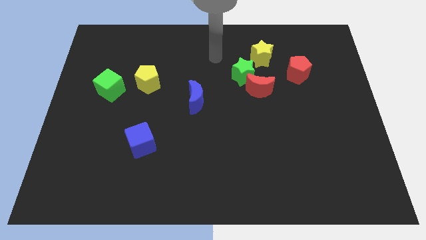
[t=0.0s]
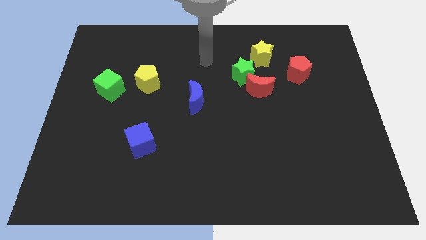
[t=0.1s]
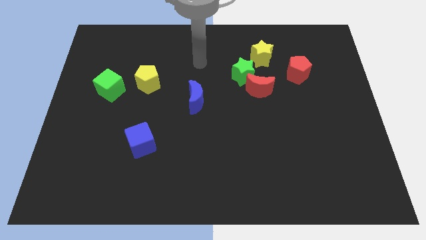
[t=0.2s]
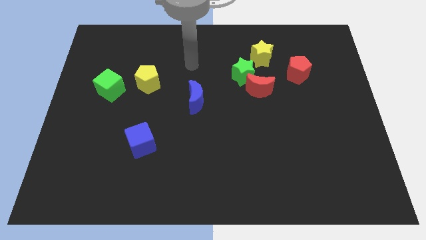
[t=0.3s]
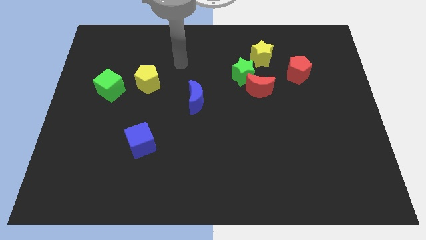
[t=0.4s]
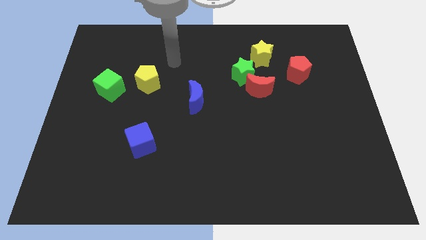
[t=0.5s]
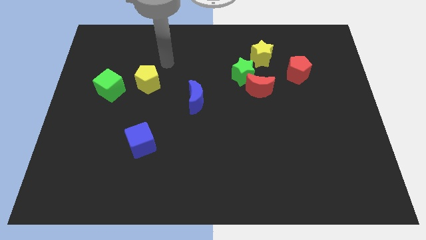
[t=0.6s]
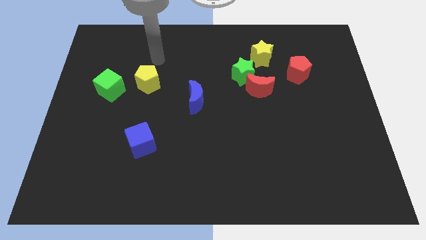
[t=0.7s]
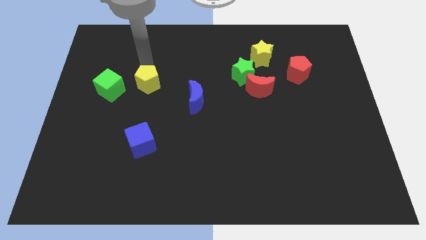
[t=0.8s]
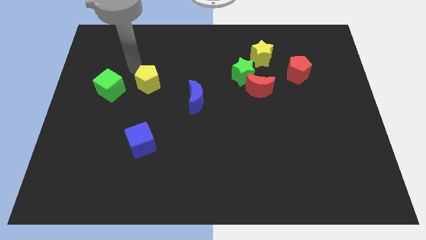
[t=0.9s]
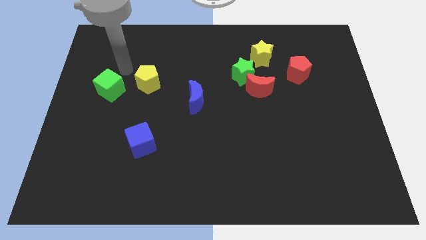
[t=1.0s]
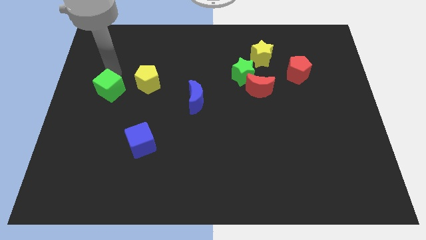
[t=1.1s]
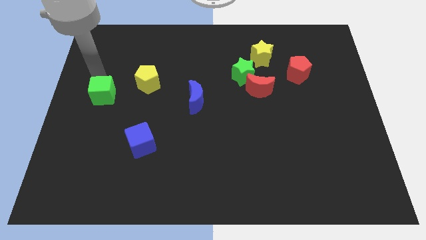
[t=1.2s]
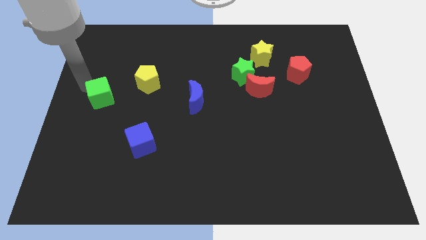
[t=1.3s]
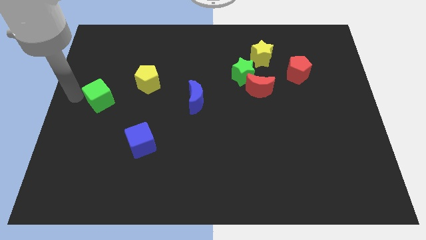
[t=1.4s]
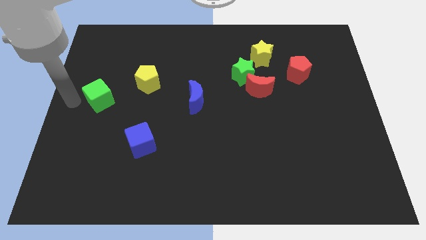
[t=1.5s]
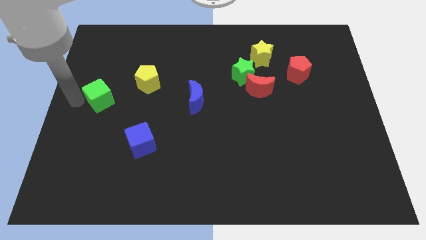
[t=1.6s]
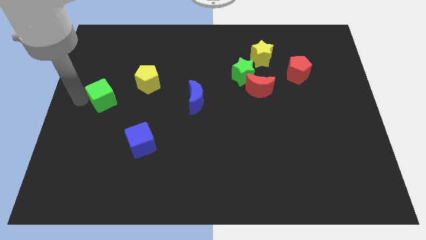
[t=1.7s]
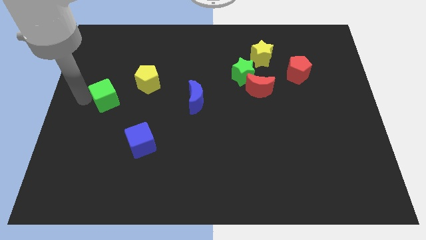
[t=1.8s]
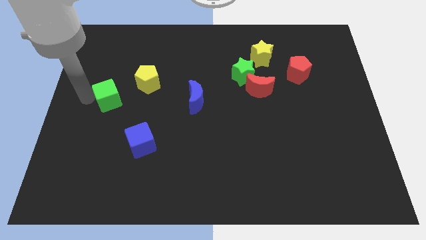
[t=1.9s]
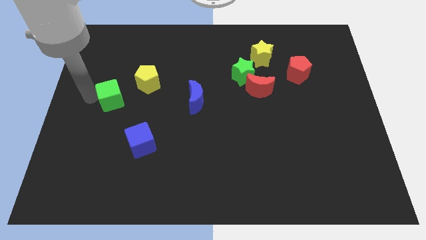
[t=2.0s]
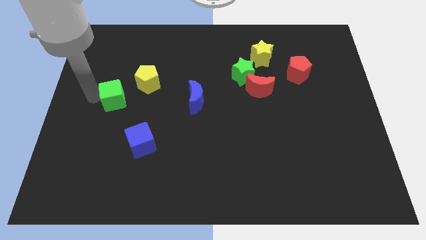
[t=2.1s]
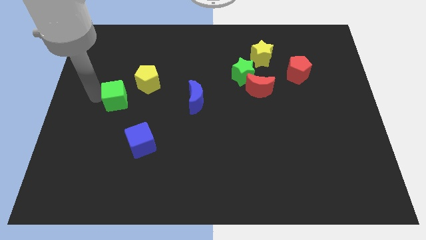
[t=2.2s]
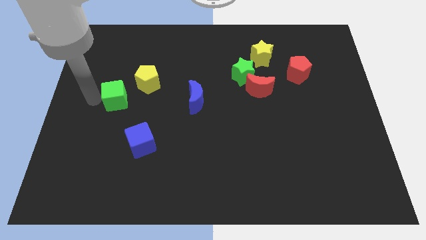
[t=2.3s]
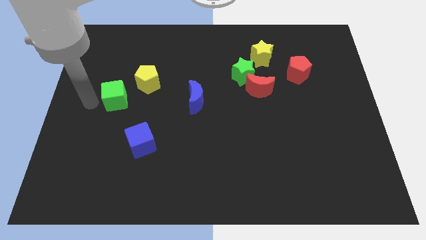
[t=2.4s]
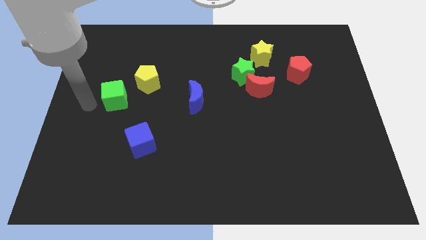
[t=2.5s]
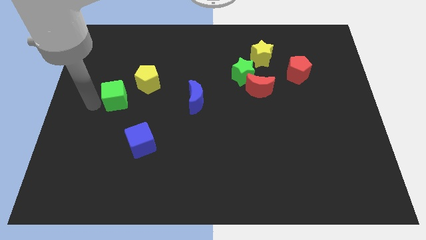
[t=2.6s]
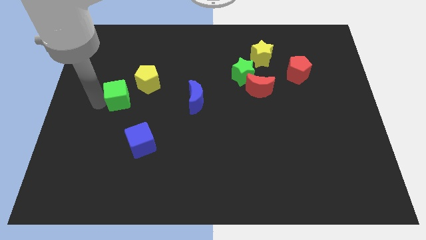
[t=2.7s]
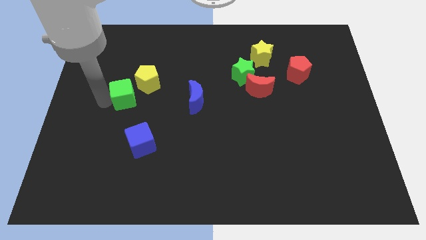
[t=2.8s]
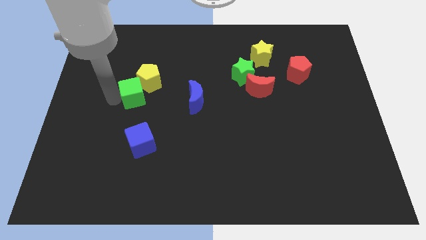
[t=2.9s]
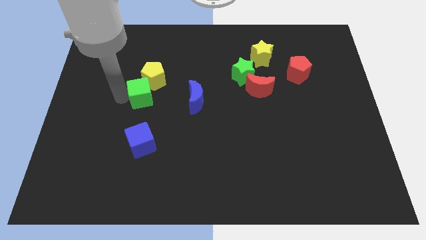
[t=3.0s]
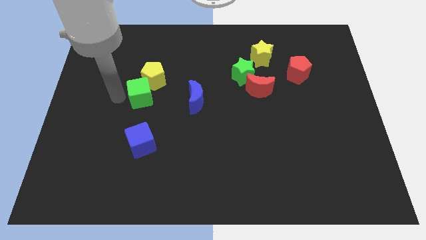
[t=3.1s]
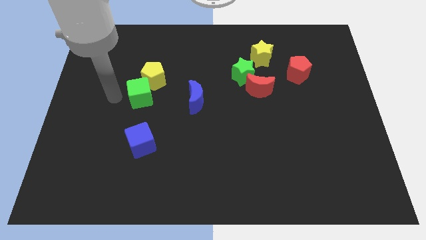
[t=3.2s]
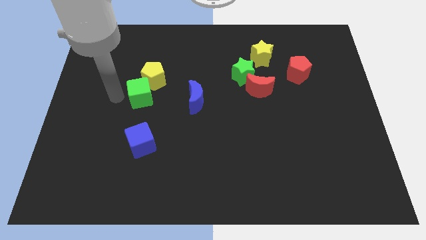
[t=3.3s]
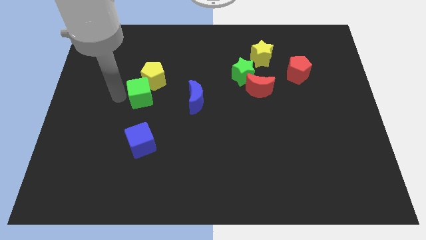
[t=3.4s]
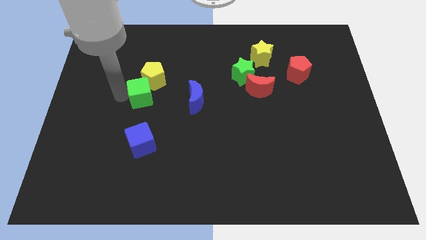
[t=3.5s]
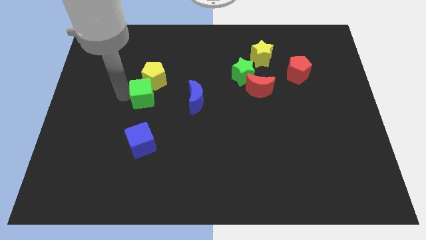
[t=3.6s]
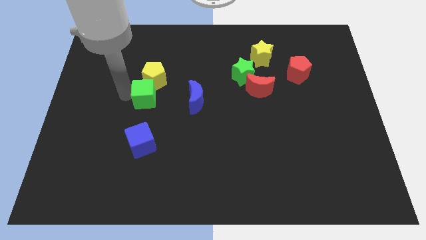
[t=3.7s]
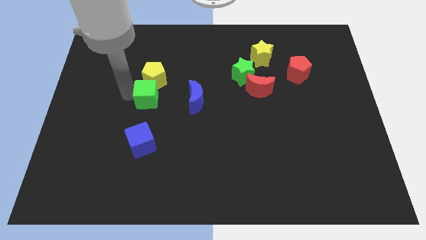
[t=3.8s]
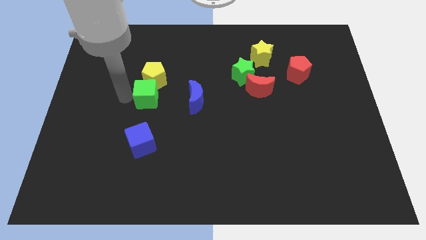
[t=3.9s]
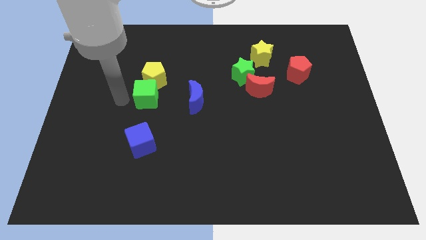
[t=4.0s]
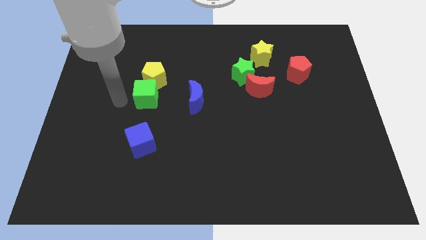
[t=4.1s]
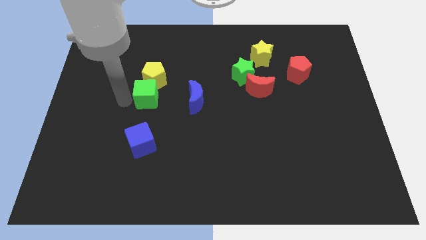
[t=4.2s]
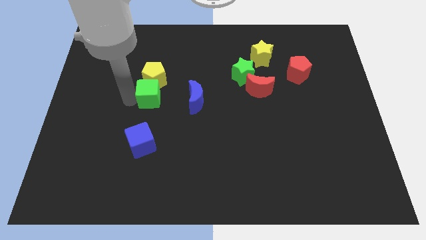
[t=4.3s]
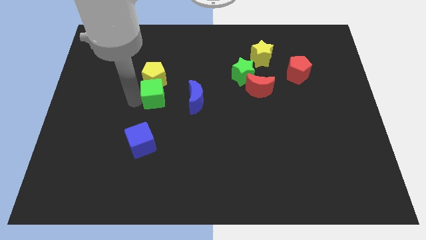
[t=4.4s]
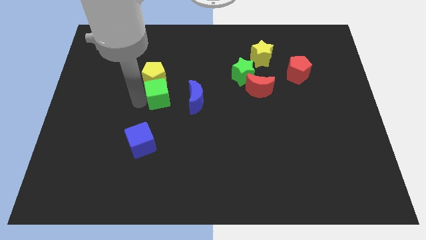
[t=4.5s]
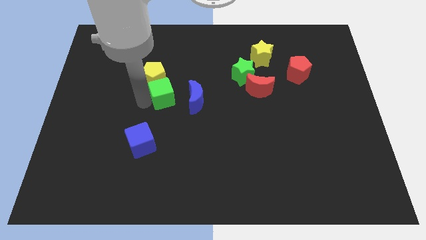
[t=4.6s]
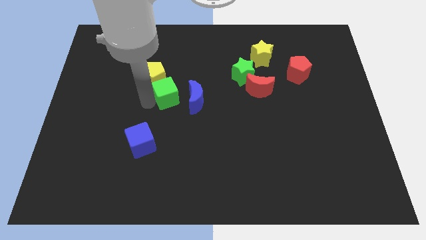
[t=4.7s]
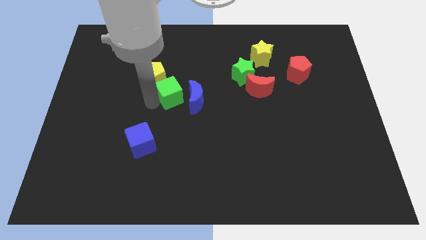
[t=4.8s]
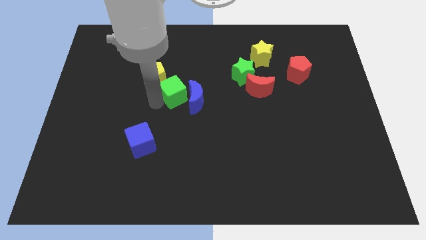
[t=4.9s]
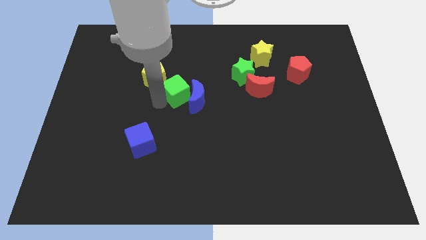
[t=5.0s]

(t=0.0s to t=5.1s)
move the green cube to the right of the yellow pentagon

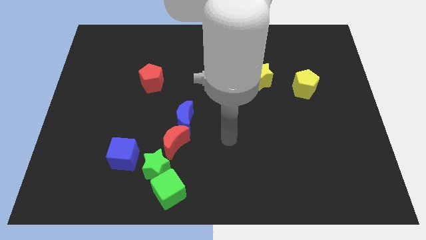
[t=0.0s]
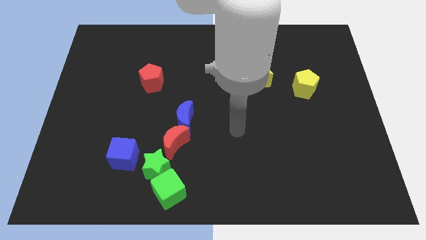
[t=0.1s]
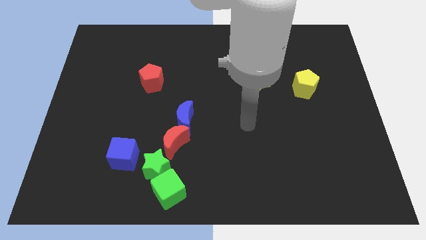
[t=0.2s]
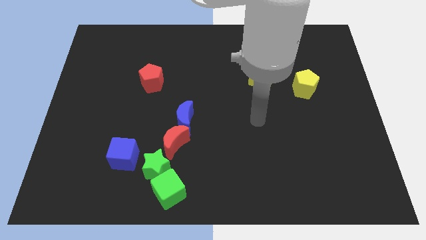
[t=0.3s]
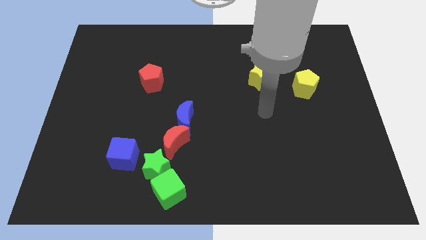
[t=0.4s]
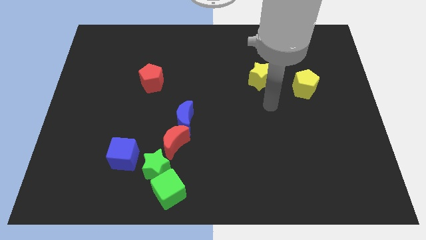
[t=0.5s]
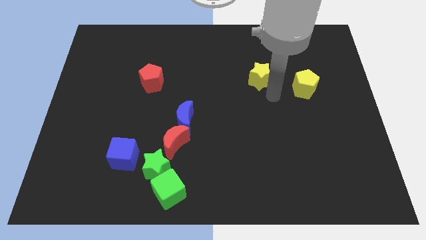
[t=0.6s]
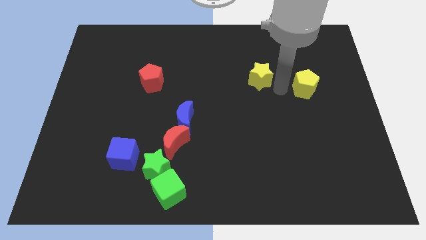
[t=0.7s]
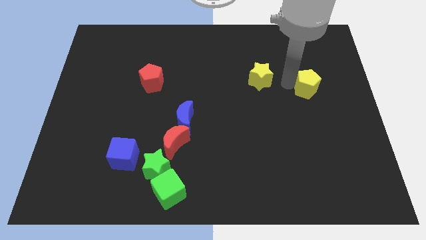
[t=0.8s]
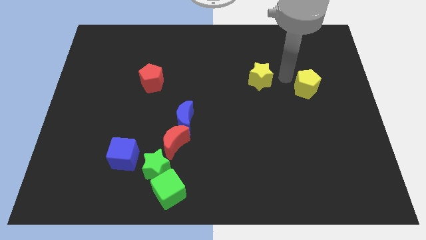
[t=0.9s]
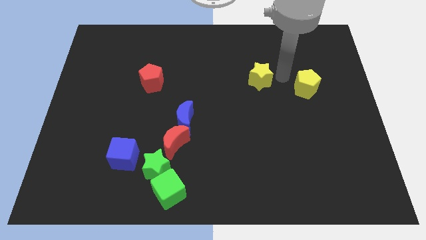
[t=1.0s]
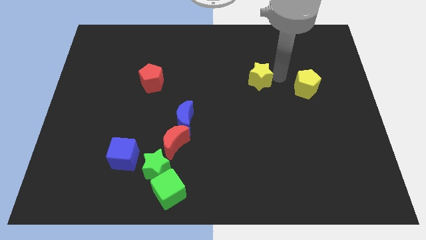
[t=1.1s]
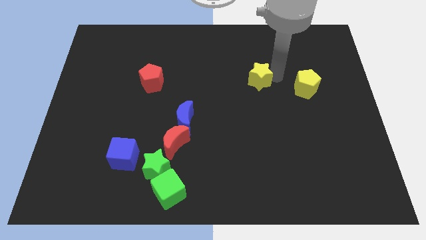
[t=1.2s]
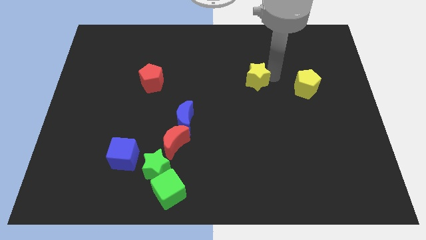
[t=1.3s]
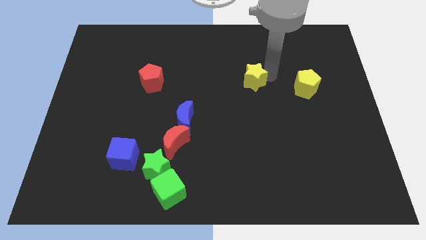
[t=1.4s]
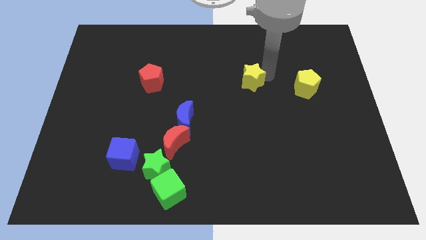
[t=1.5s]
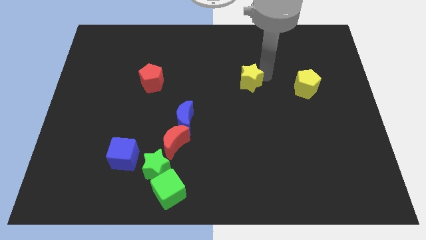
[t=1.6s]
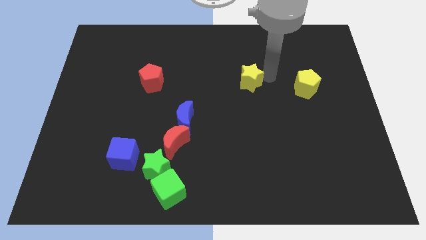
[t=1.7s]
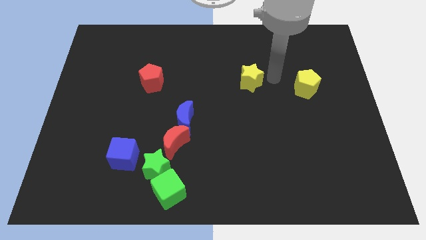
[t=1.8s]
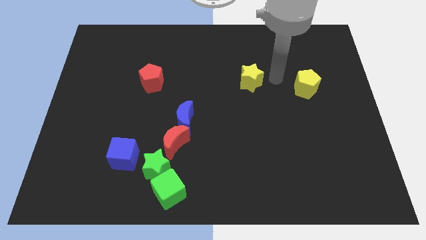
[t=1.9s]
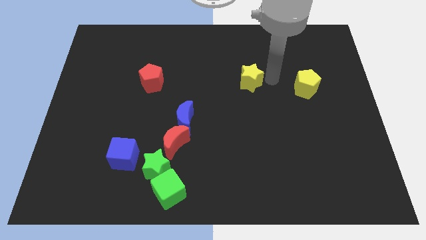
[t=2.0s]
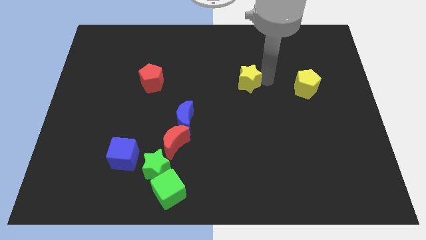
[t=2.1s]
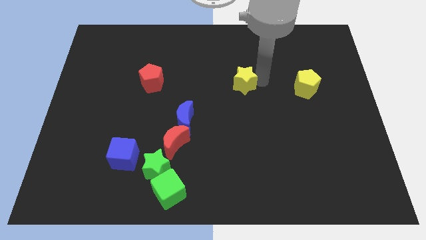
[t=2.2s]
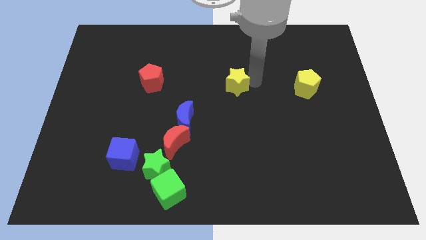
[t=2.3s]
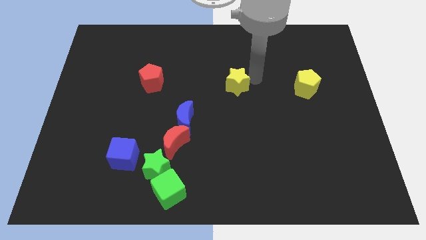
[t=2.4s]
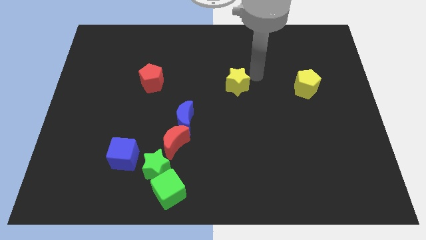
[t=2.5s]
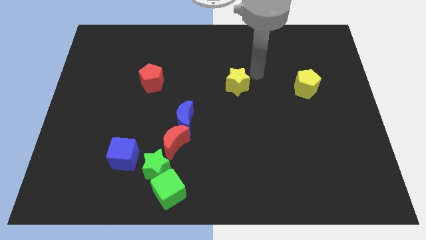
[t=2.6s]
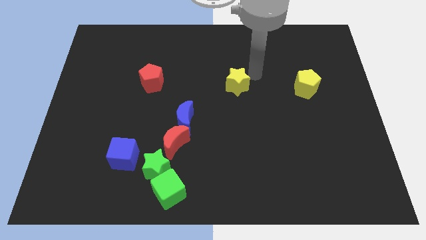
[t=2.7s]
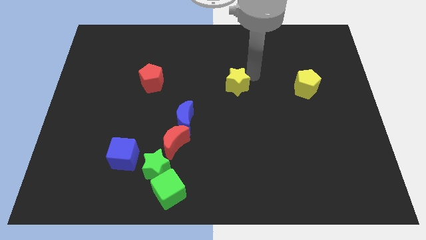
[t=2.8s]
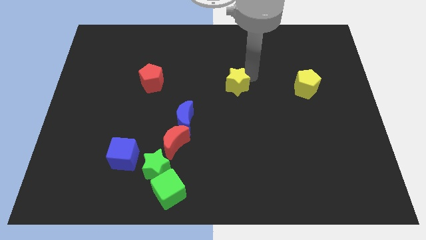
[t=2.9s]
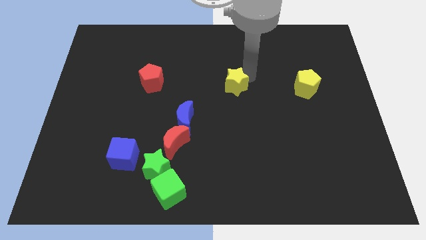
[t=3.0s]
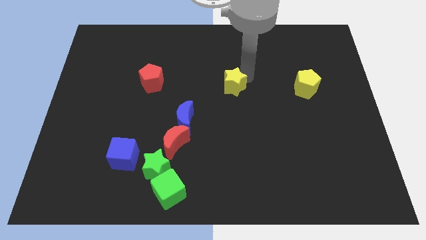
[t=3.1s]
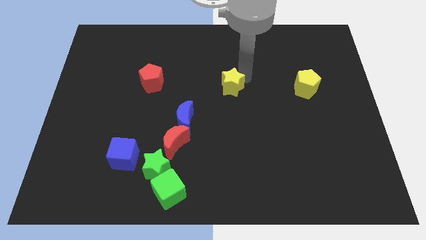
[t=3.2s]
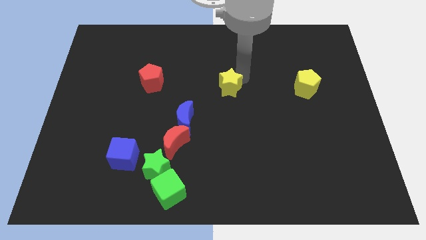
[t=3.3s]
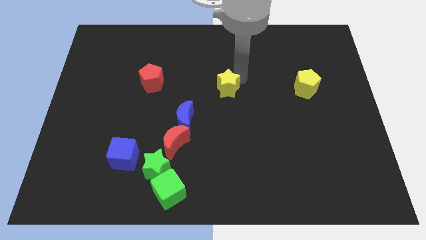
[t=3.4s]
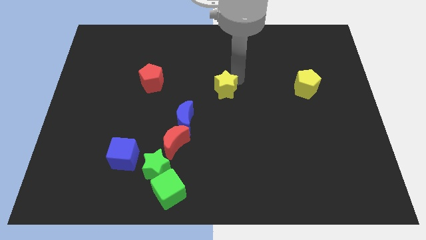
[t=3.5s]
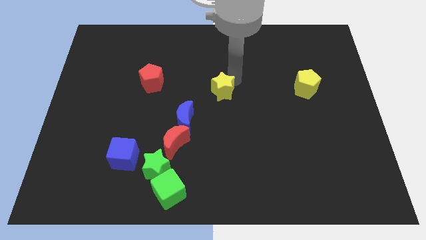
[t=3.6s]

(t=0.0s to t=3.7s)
push the yellow star to the top right of the blue moon
